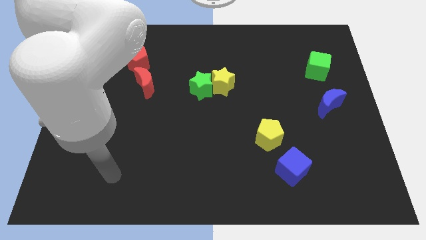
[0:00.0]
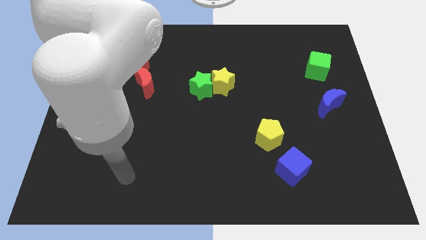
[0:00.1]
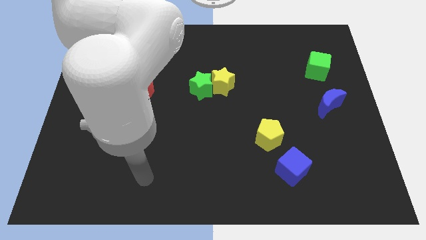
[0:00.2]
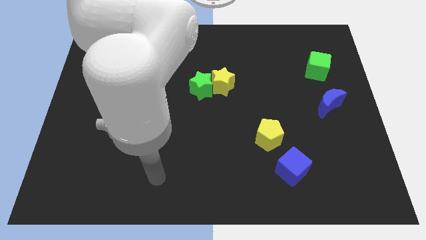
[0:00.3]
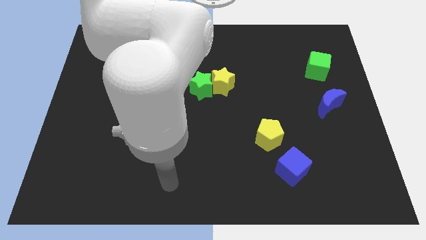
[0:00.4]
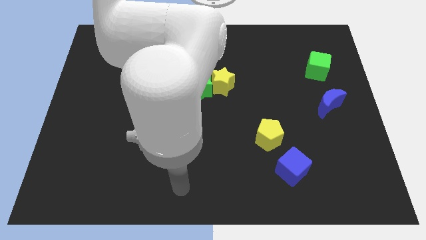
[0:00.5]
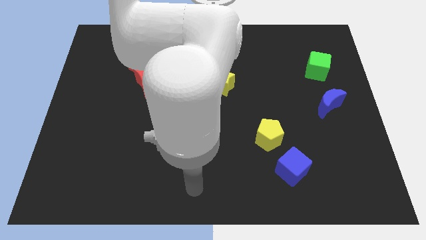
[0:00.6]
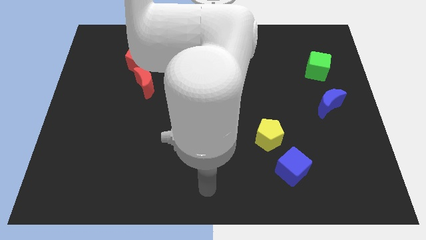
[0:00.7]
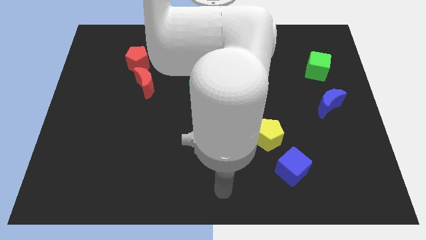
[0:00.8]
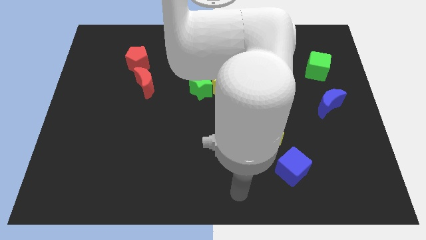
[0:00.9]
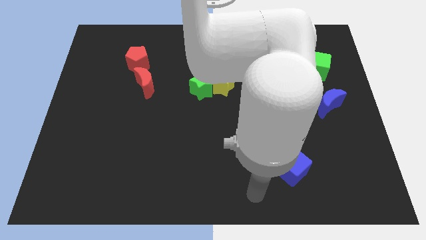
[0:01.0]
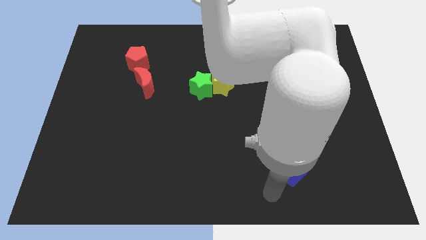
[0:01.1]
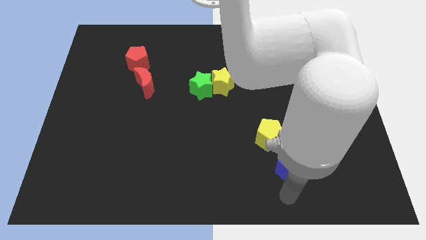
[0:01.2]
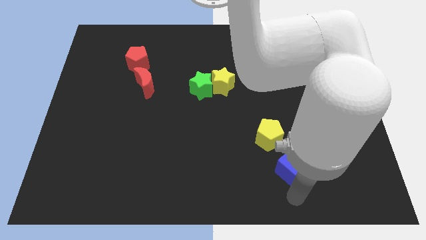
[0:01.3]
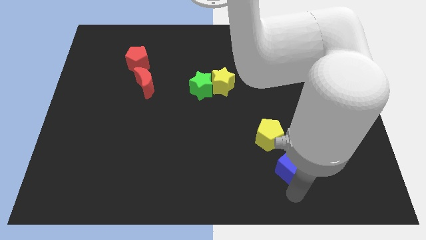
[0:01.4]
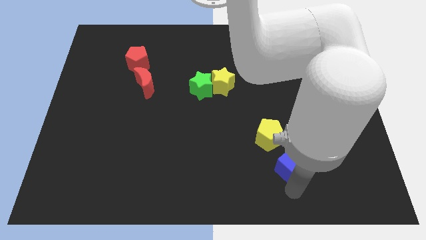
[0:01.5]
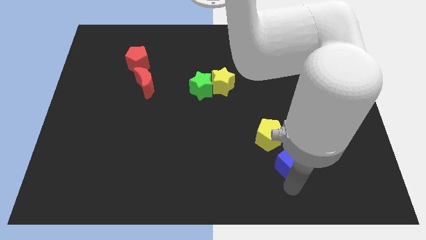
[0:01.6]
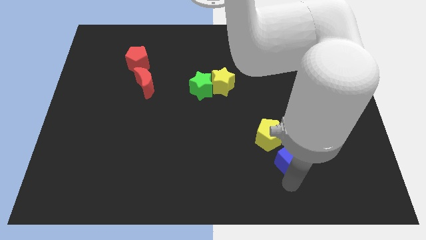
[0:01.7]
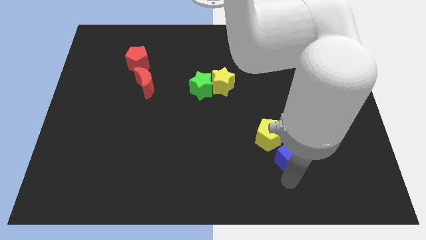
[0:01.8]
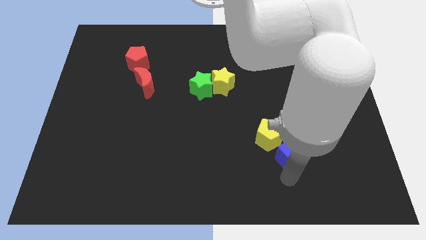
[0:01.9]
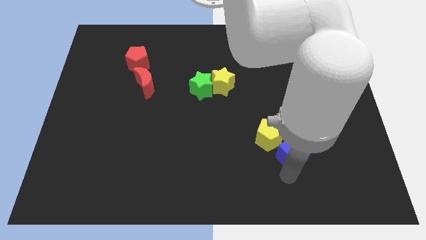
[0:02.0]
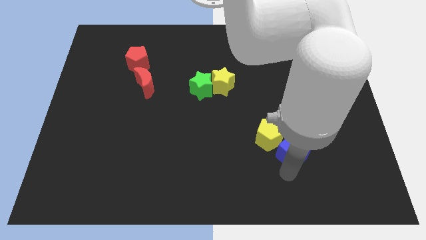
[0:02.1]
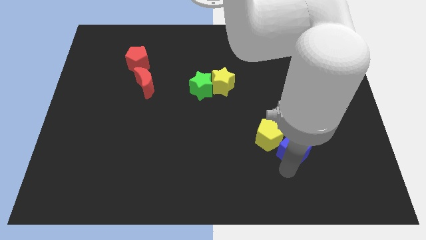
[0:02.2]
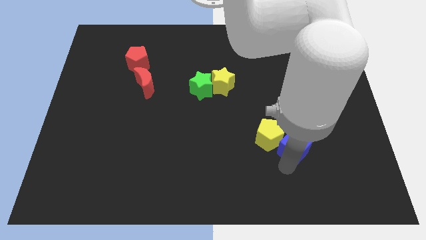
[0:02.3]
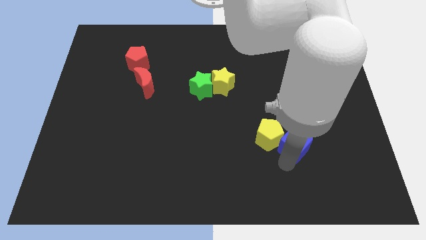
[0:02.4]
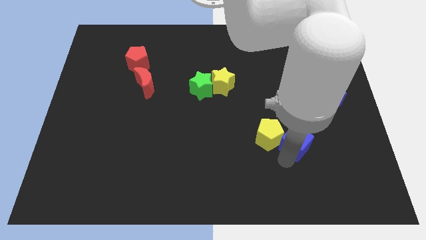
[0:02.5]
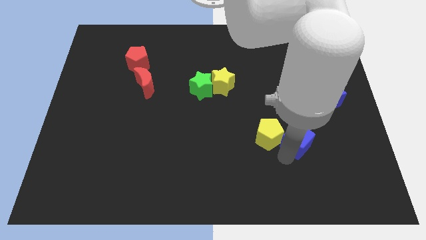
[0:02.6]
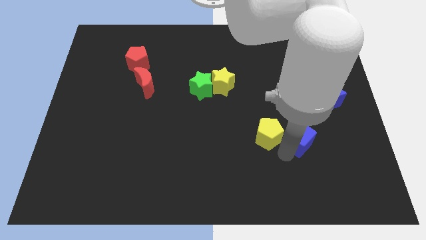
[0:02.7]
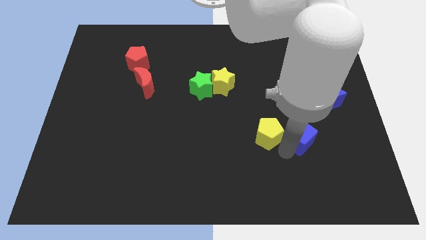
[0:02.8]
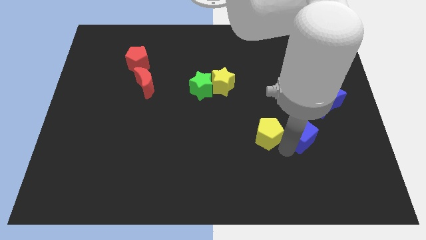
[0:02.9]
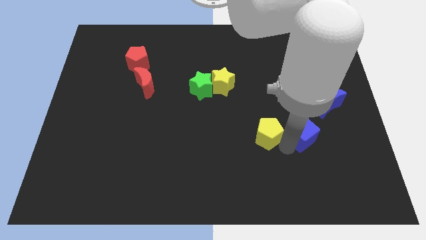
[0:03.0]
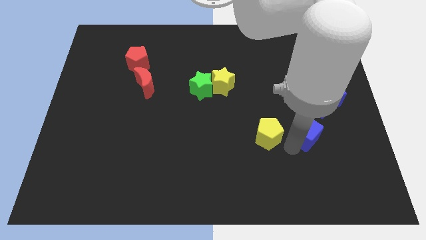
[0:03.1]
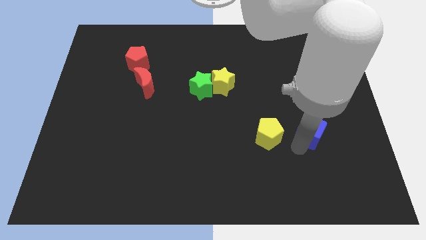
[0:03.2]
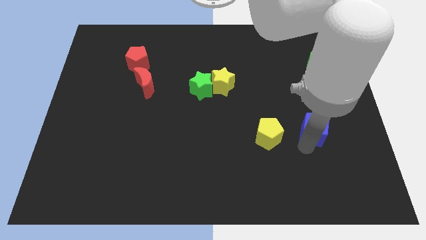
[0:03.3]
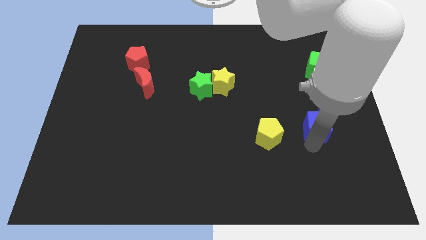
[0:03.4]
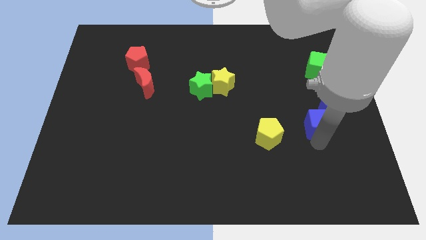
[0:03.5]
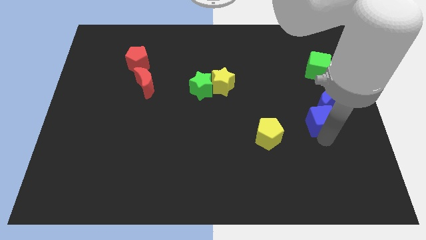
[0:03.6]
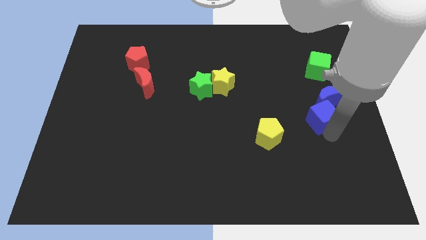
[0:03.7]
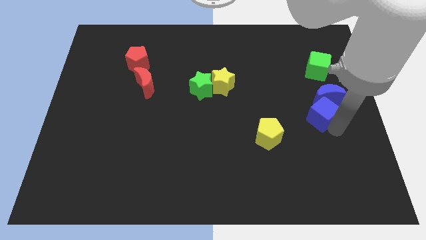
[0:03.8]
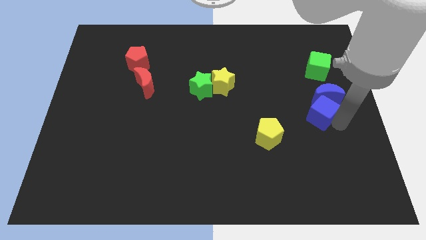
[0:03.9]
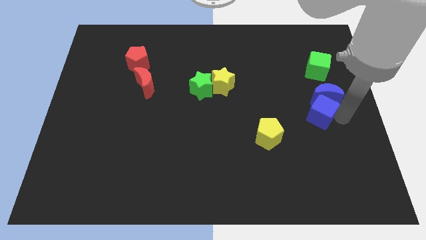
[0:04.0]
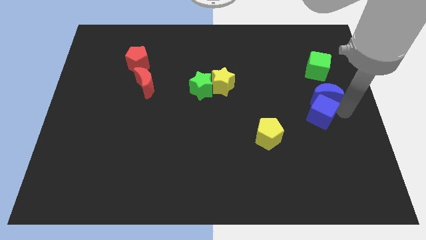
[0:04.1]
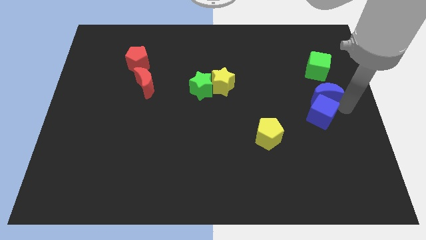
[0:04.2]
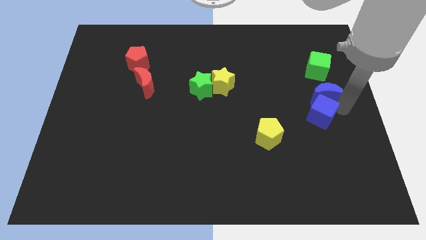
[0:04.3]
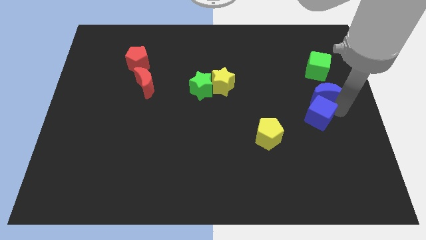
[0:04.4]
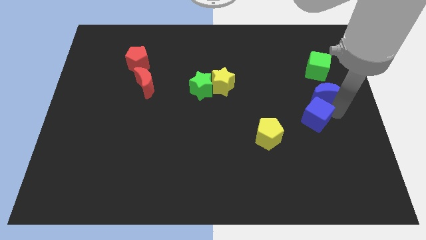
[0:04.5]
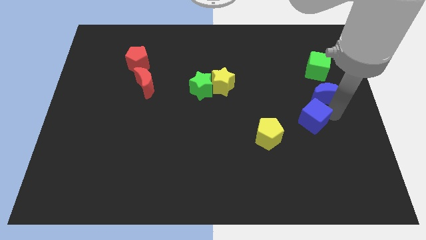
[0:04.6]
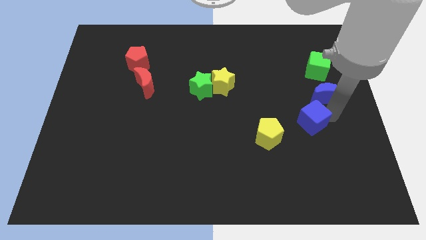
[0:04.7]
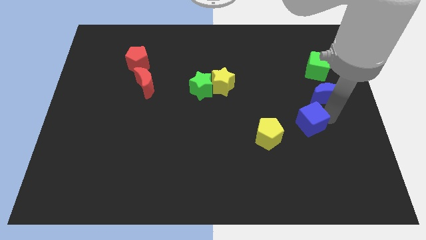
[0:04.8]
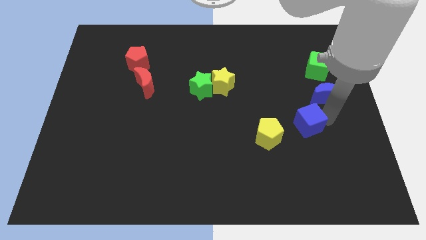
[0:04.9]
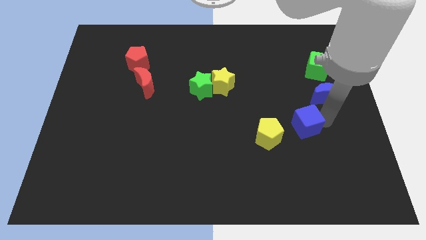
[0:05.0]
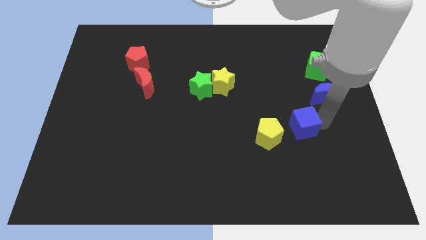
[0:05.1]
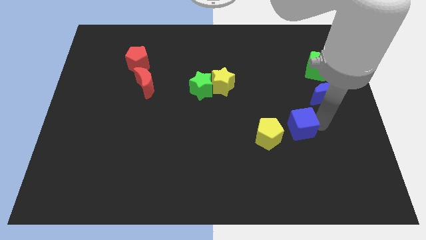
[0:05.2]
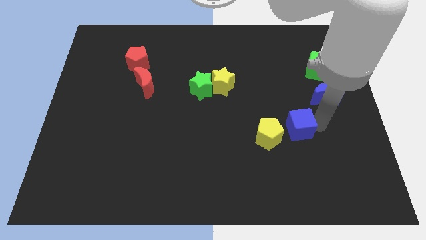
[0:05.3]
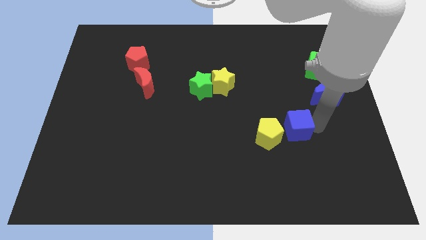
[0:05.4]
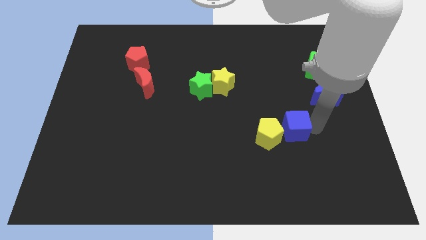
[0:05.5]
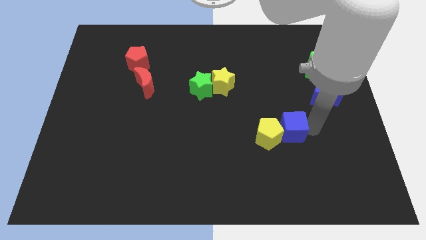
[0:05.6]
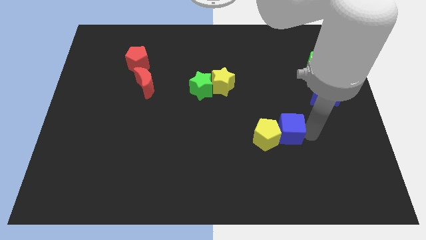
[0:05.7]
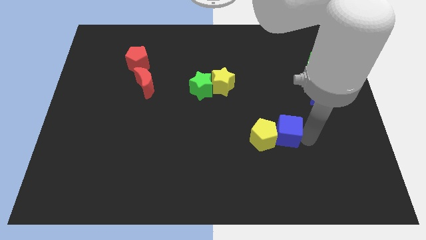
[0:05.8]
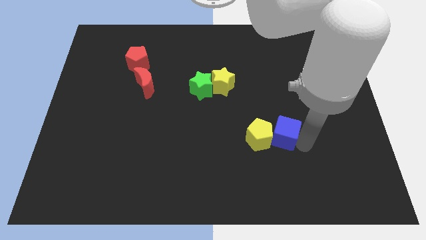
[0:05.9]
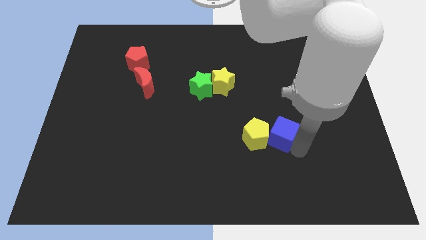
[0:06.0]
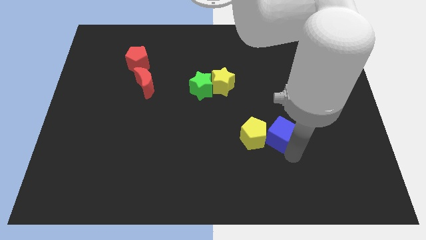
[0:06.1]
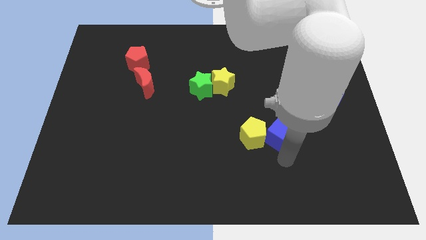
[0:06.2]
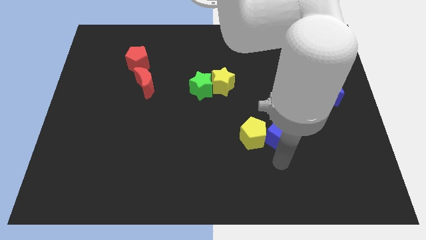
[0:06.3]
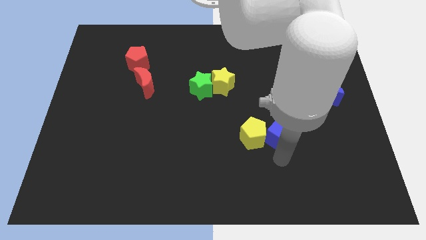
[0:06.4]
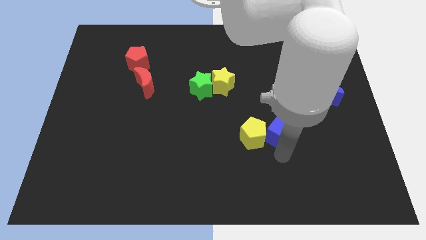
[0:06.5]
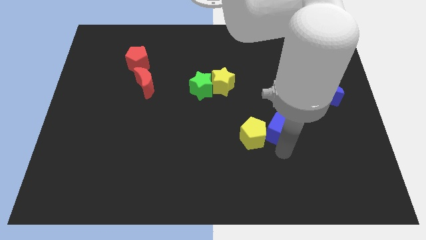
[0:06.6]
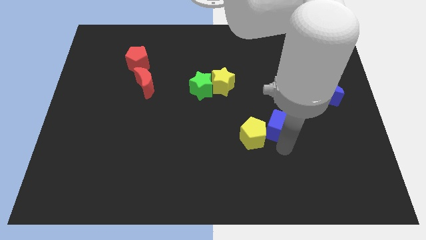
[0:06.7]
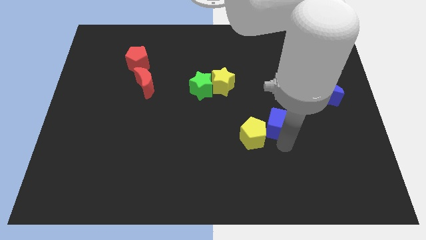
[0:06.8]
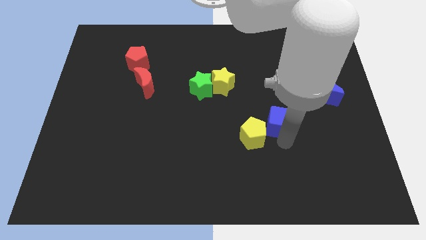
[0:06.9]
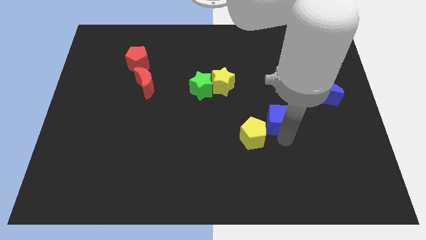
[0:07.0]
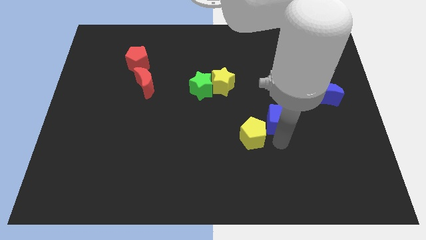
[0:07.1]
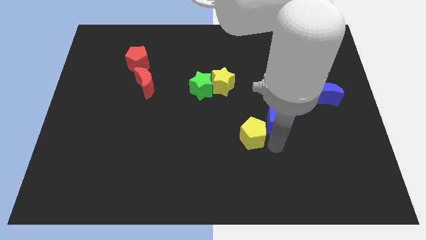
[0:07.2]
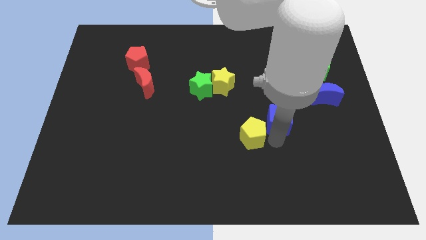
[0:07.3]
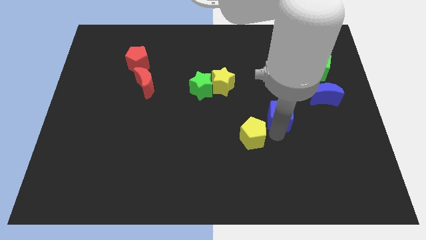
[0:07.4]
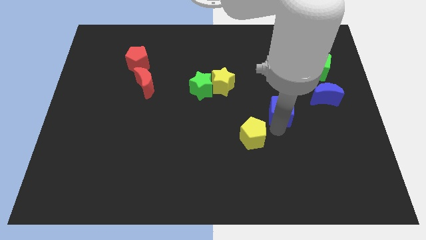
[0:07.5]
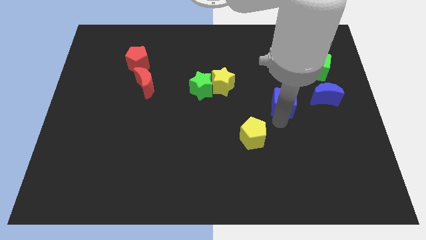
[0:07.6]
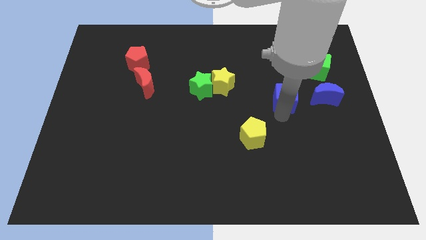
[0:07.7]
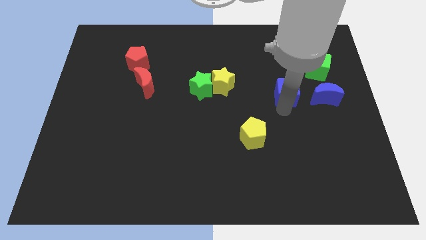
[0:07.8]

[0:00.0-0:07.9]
push the blue cube upwards

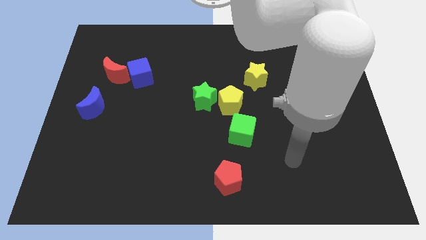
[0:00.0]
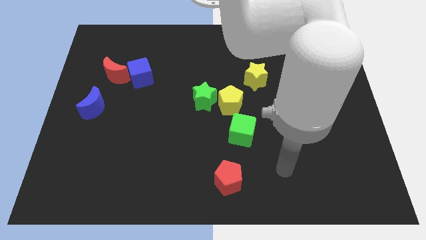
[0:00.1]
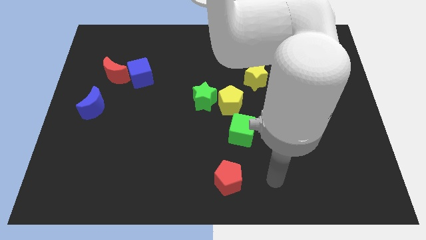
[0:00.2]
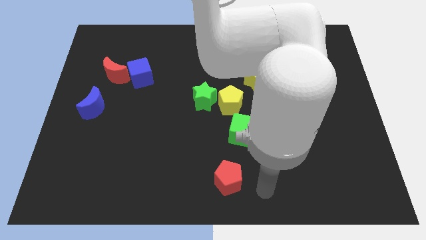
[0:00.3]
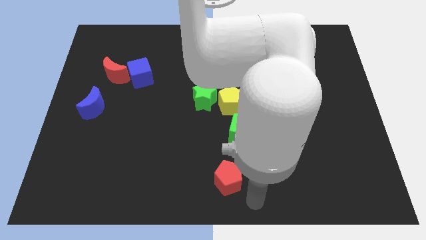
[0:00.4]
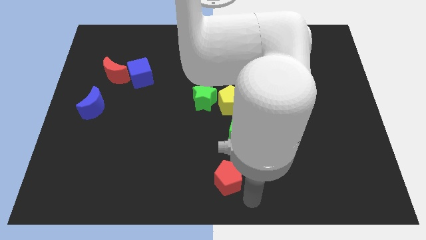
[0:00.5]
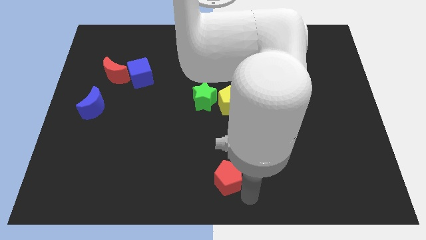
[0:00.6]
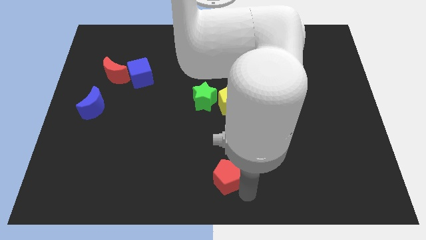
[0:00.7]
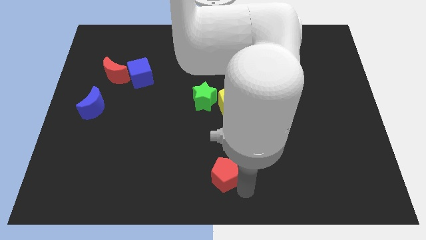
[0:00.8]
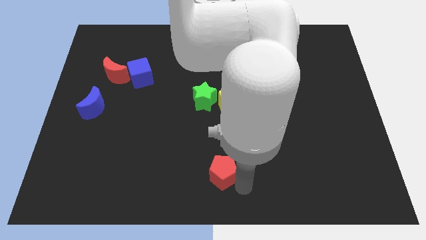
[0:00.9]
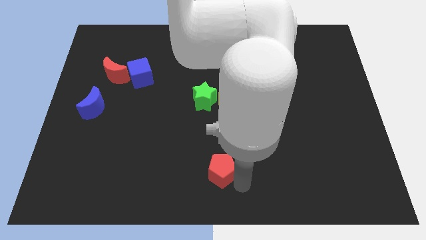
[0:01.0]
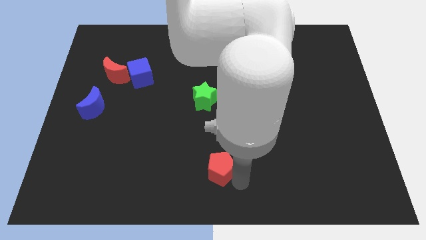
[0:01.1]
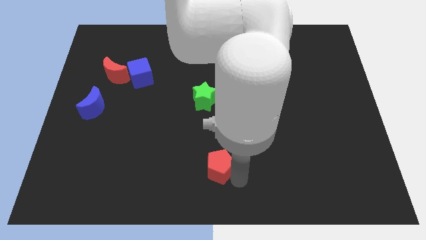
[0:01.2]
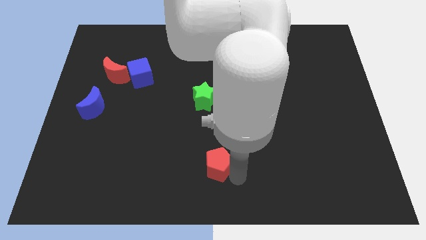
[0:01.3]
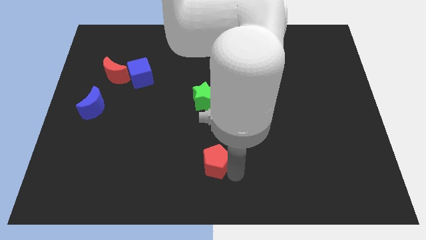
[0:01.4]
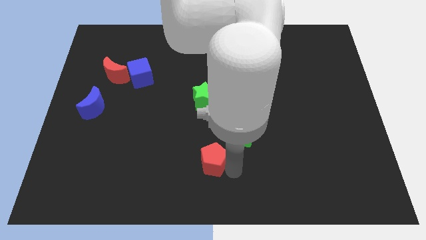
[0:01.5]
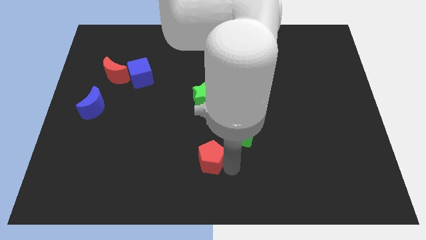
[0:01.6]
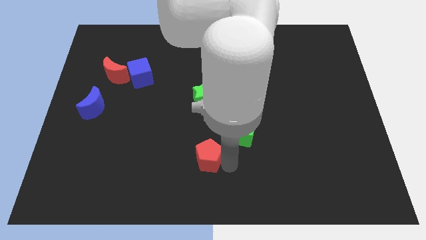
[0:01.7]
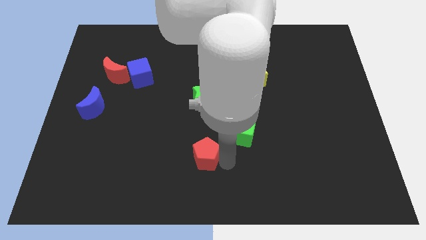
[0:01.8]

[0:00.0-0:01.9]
push the red pentagon a little up and to the left
